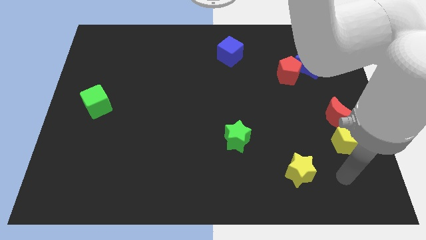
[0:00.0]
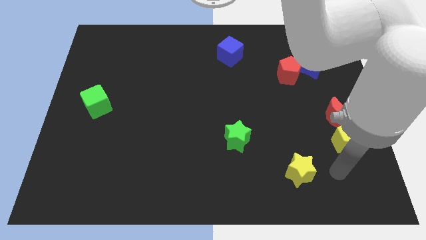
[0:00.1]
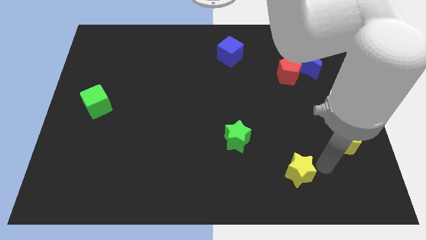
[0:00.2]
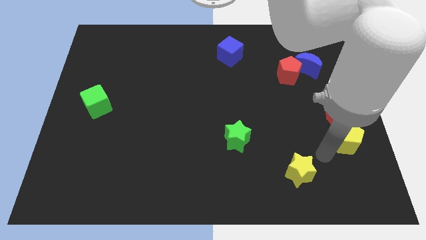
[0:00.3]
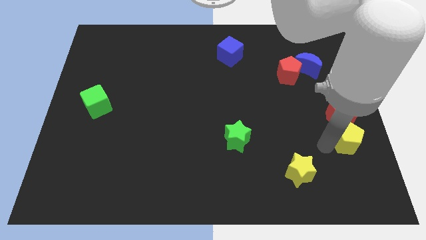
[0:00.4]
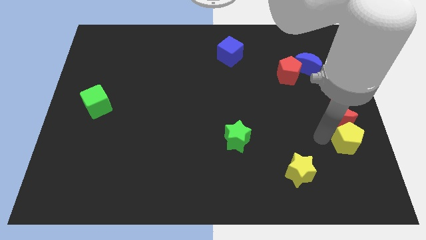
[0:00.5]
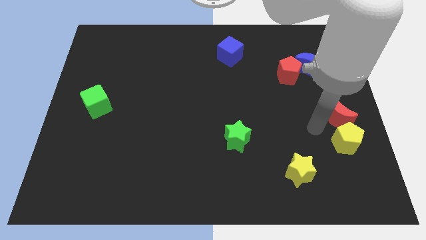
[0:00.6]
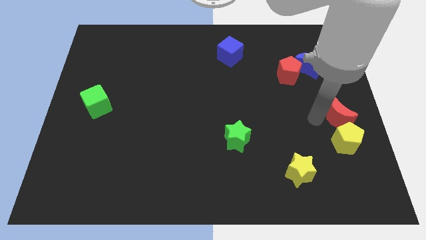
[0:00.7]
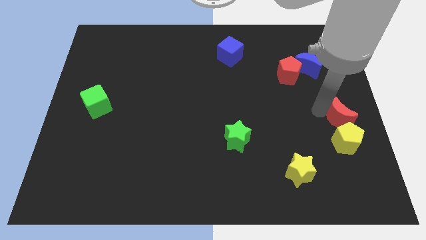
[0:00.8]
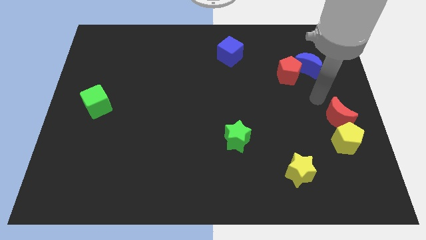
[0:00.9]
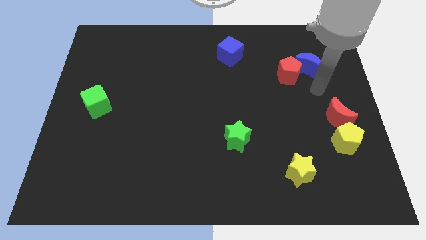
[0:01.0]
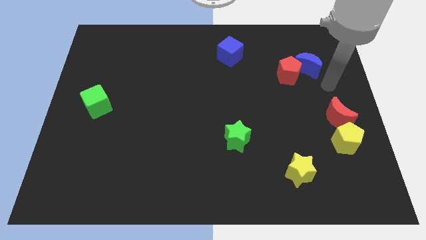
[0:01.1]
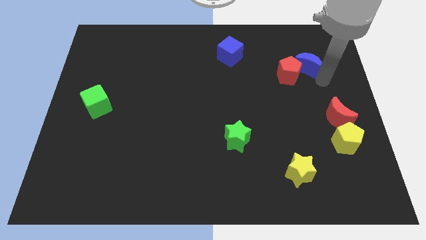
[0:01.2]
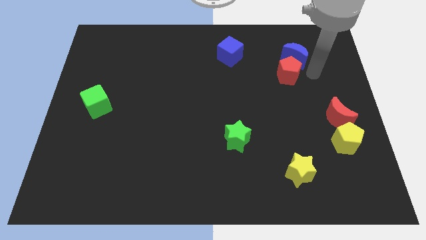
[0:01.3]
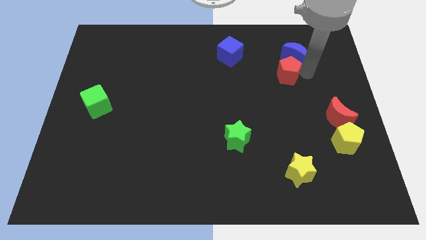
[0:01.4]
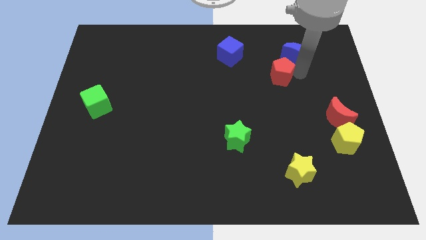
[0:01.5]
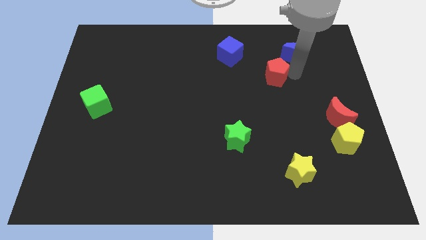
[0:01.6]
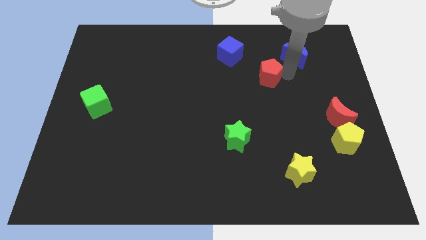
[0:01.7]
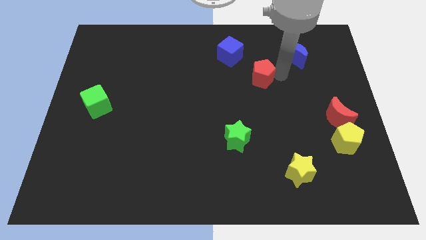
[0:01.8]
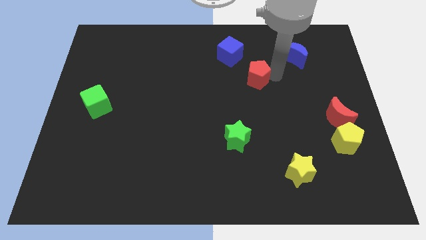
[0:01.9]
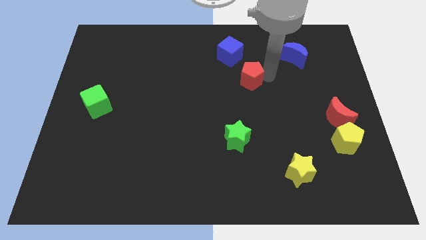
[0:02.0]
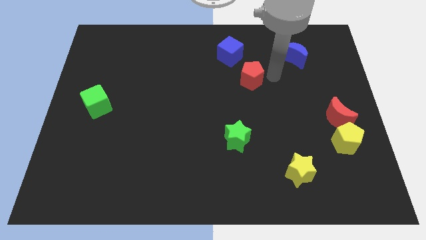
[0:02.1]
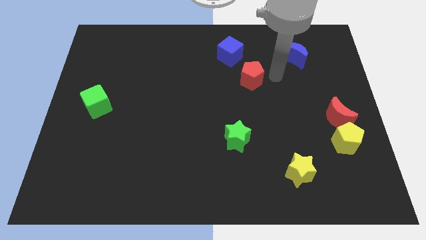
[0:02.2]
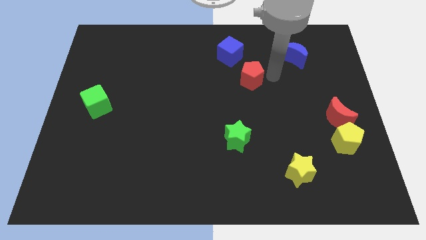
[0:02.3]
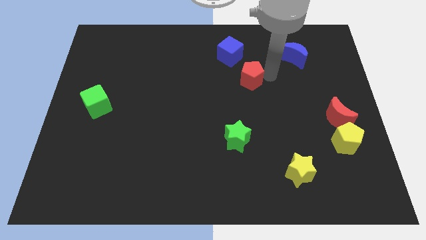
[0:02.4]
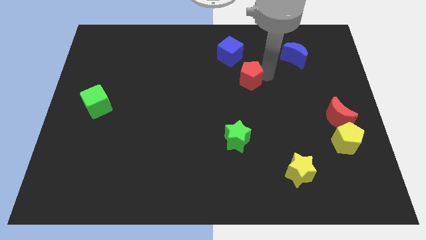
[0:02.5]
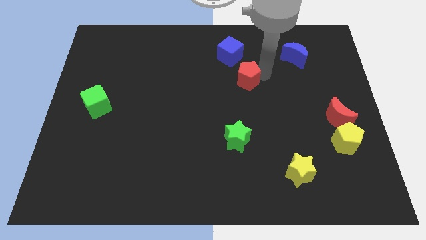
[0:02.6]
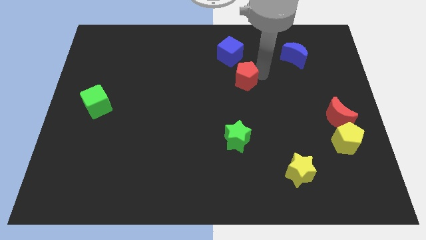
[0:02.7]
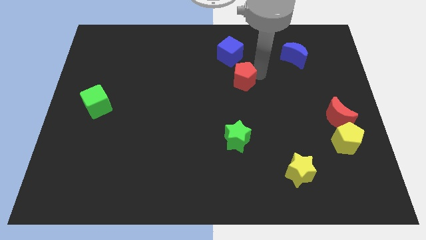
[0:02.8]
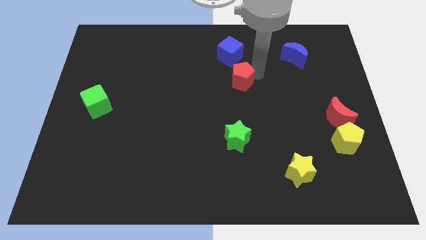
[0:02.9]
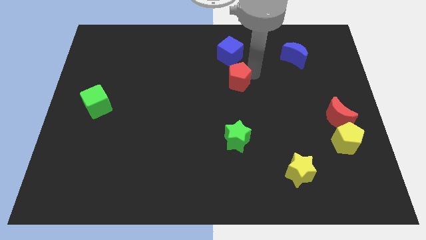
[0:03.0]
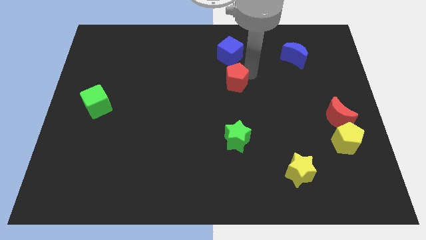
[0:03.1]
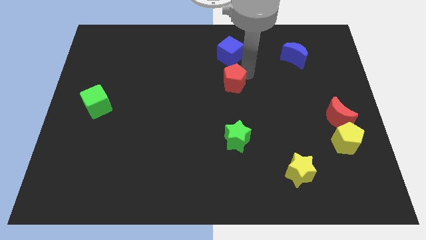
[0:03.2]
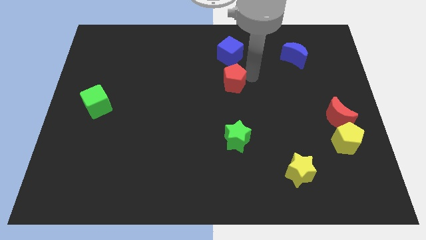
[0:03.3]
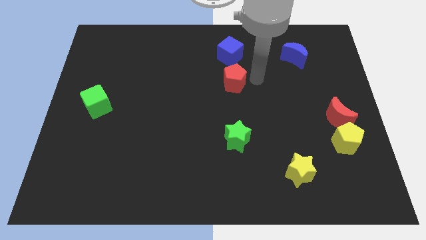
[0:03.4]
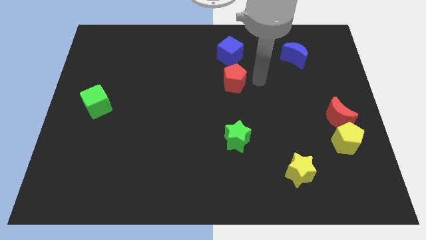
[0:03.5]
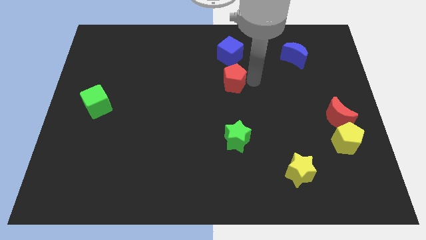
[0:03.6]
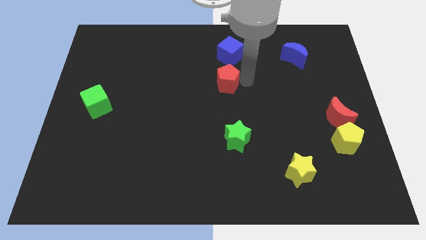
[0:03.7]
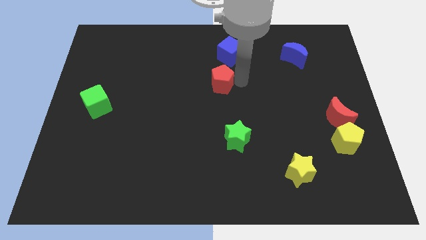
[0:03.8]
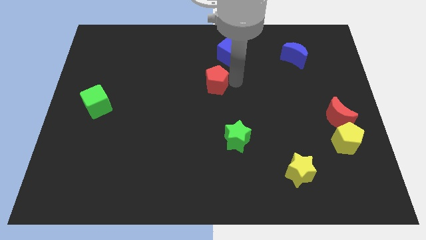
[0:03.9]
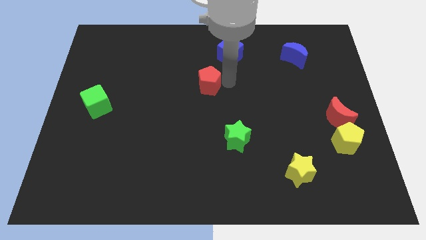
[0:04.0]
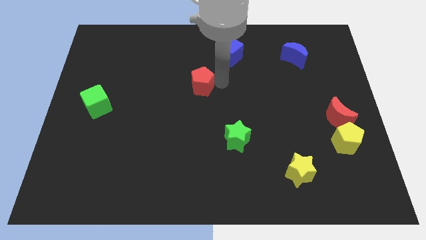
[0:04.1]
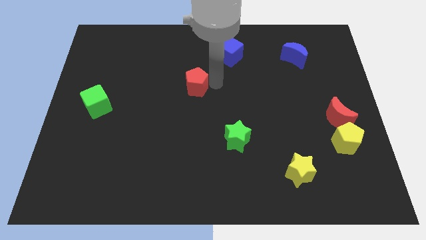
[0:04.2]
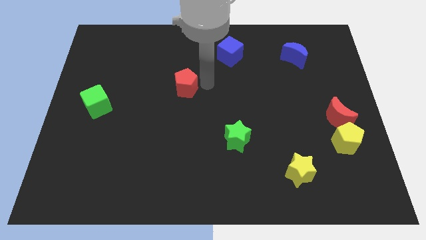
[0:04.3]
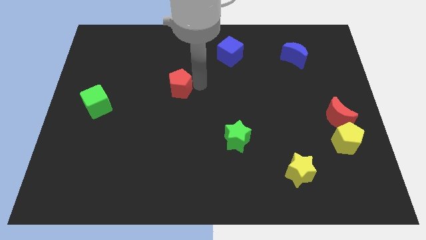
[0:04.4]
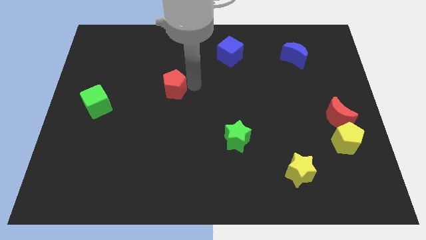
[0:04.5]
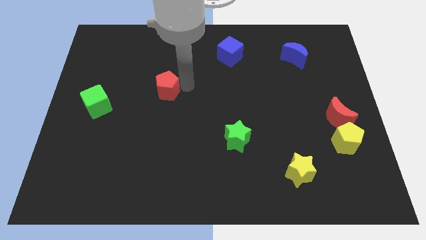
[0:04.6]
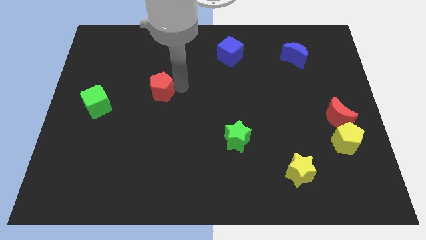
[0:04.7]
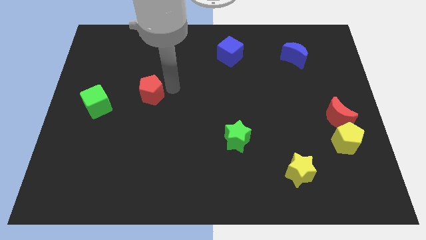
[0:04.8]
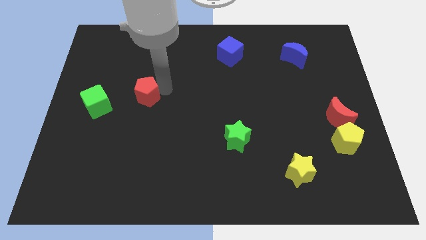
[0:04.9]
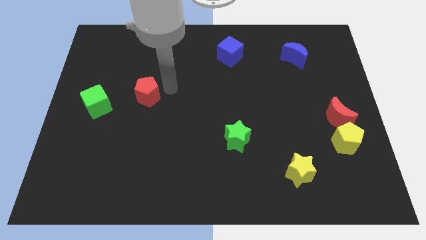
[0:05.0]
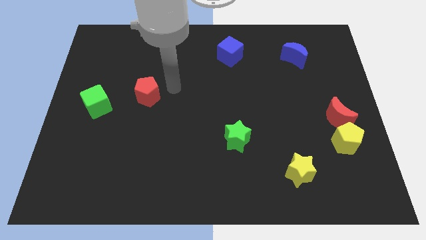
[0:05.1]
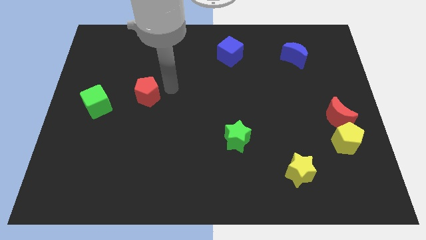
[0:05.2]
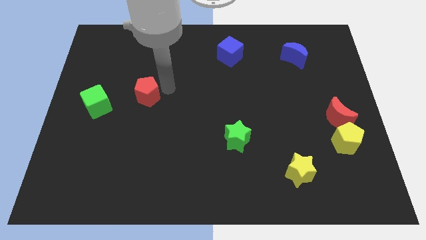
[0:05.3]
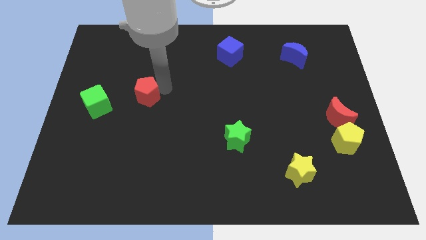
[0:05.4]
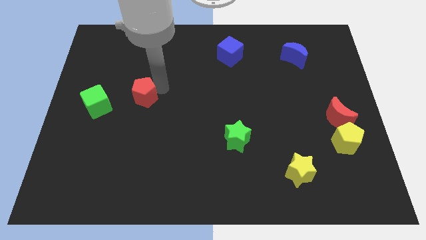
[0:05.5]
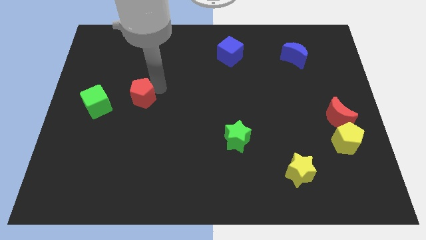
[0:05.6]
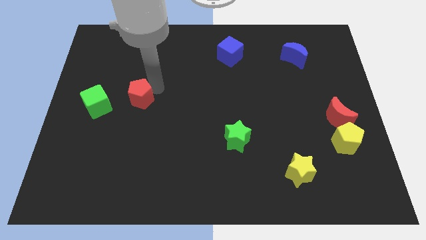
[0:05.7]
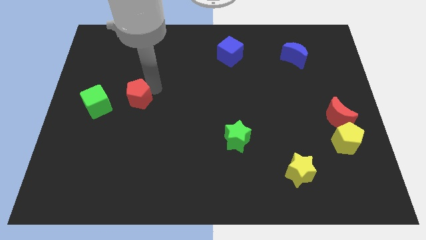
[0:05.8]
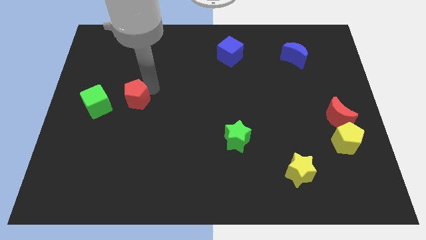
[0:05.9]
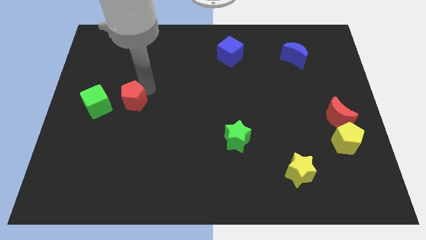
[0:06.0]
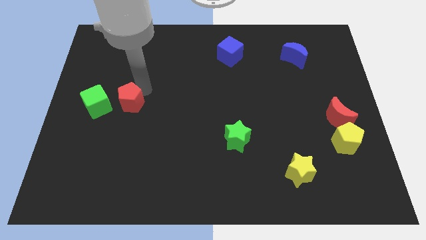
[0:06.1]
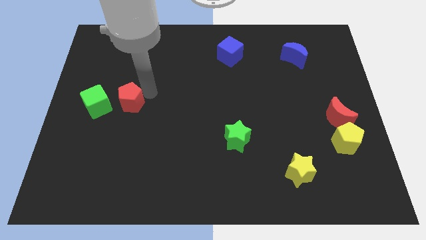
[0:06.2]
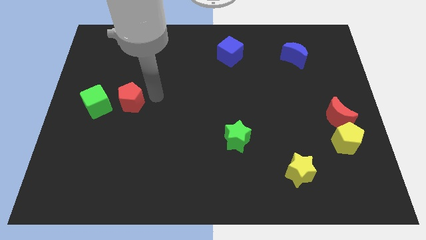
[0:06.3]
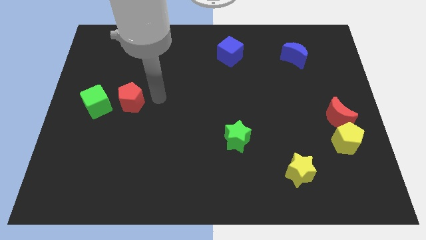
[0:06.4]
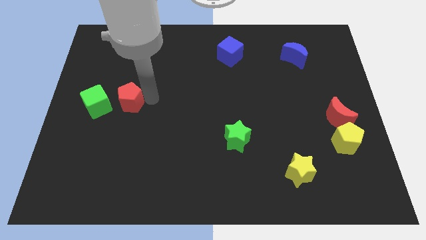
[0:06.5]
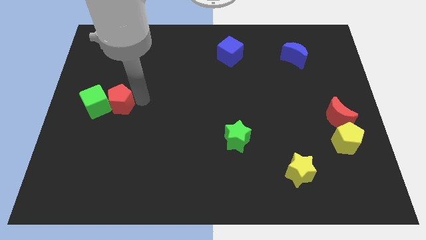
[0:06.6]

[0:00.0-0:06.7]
put the red pentagon towards the green cube

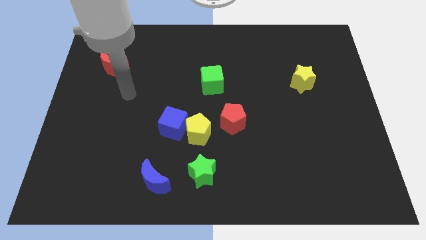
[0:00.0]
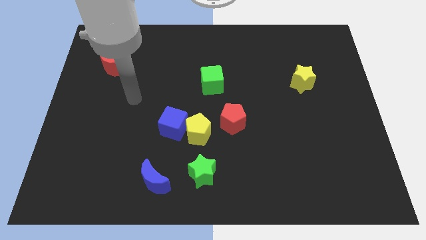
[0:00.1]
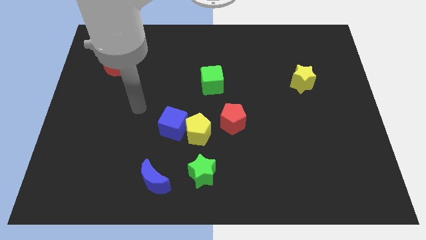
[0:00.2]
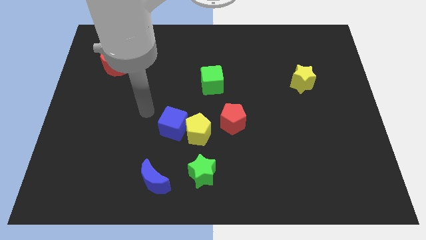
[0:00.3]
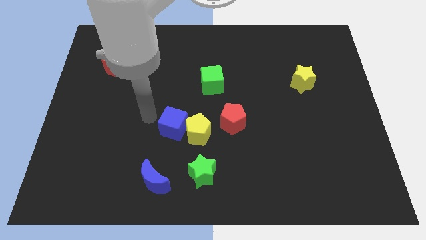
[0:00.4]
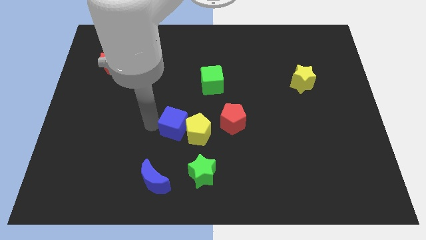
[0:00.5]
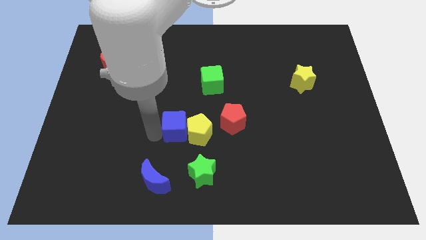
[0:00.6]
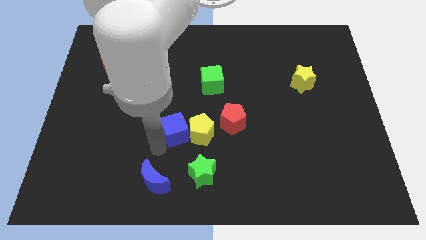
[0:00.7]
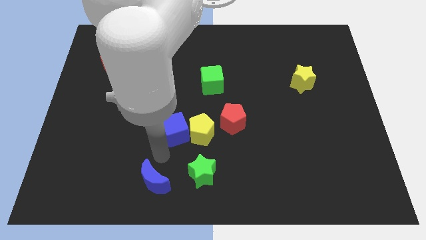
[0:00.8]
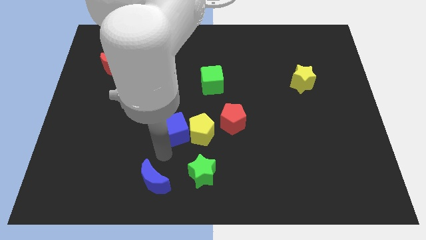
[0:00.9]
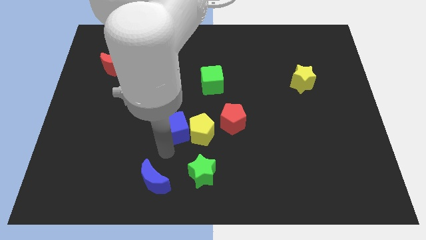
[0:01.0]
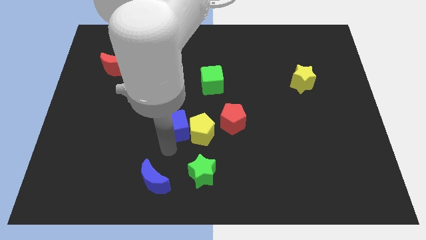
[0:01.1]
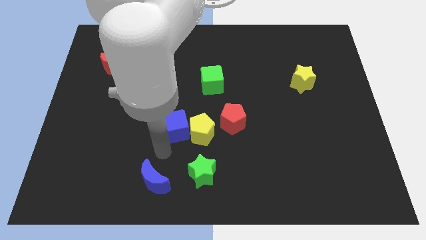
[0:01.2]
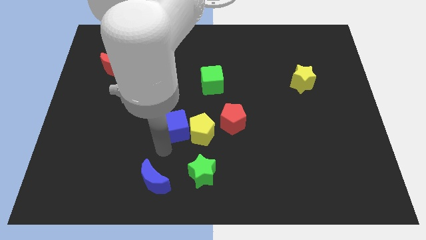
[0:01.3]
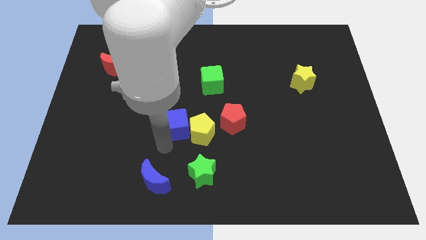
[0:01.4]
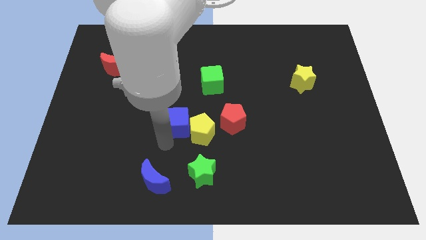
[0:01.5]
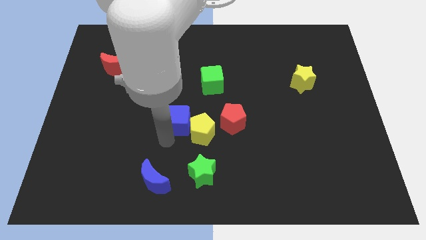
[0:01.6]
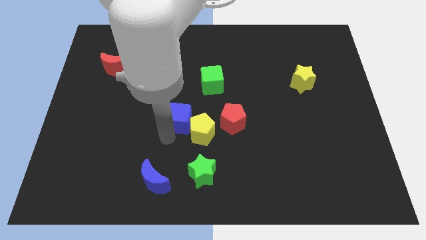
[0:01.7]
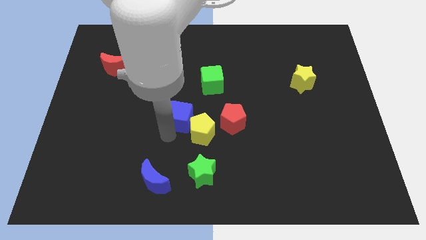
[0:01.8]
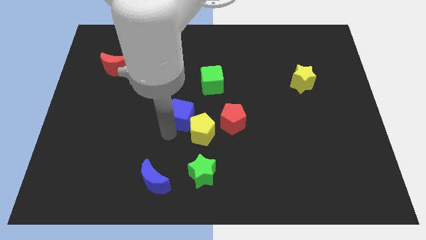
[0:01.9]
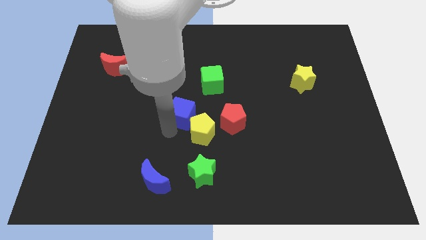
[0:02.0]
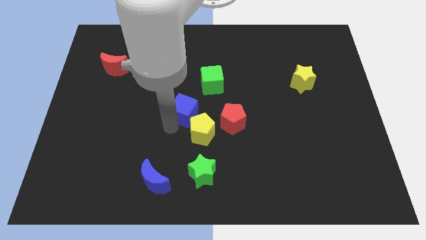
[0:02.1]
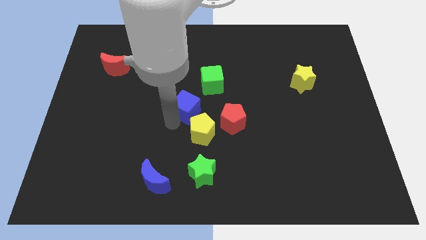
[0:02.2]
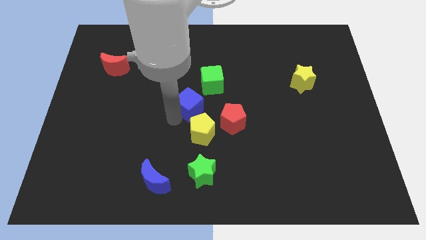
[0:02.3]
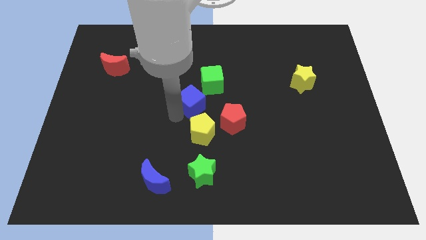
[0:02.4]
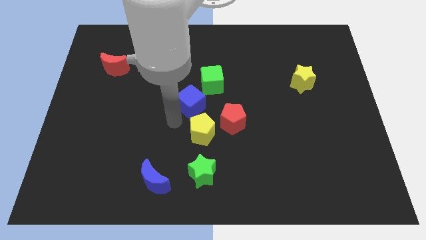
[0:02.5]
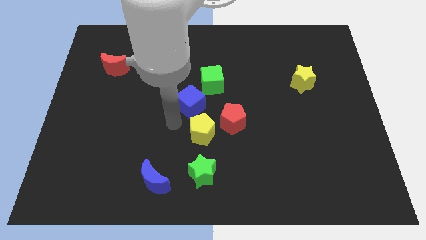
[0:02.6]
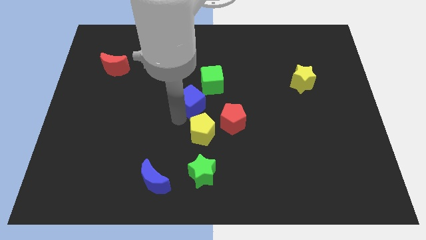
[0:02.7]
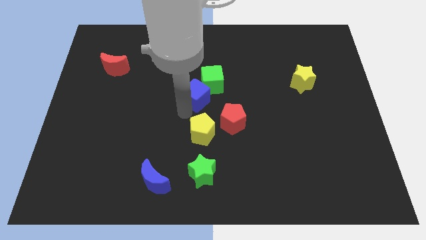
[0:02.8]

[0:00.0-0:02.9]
move the blue cube close to the green cube
